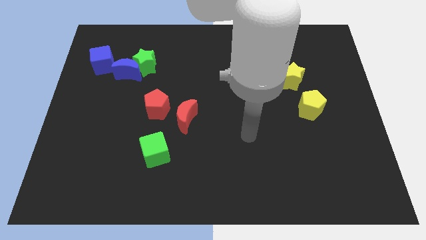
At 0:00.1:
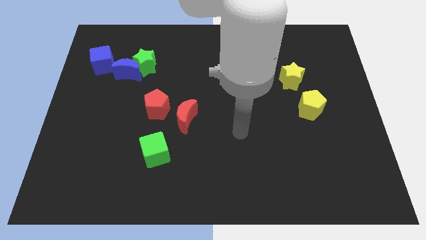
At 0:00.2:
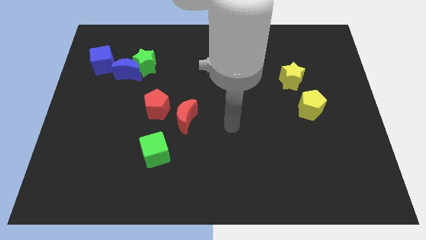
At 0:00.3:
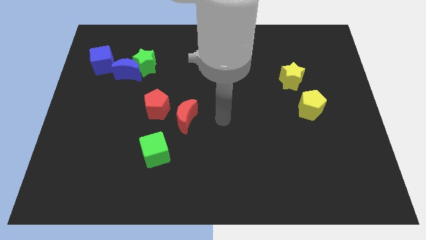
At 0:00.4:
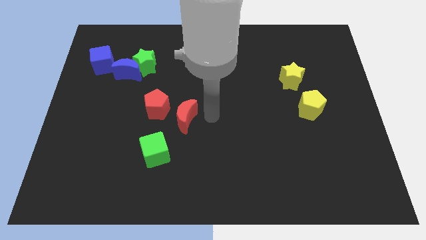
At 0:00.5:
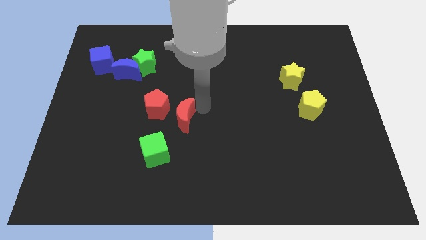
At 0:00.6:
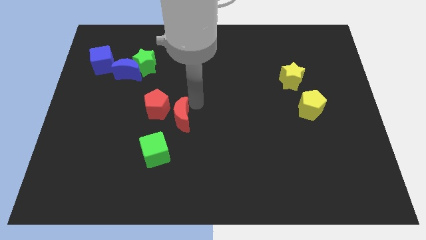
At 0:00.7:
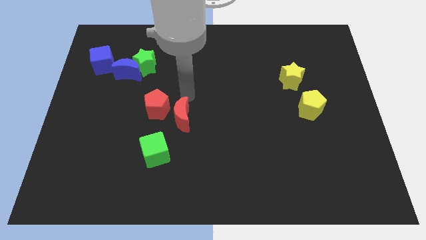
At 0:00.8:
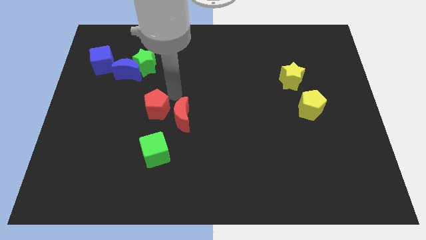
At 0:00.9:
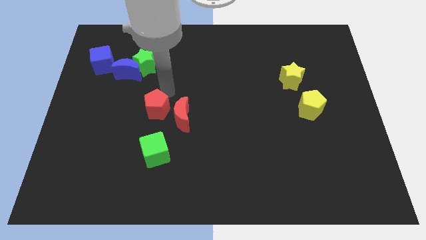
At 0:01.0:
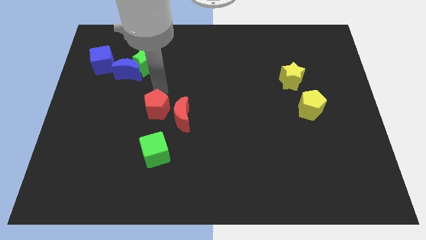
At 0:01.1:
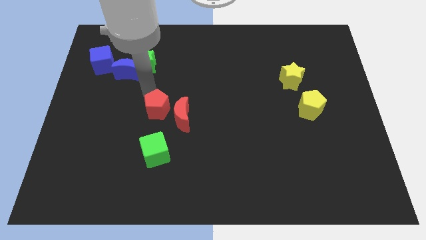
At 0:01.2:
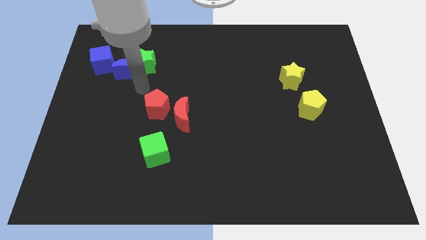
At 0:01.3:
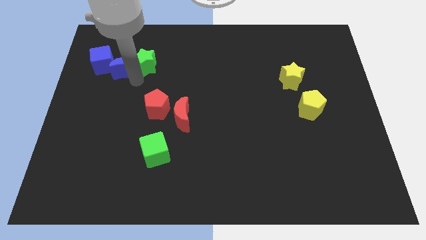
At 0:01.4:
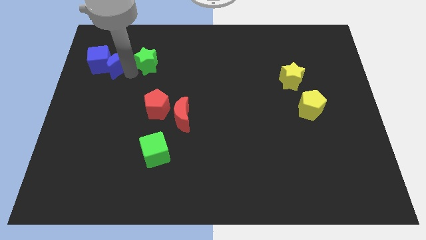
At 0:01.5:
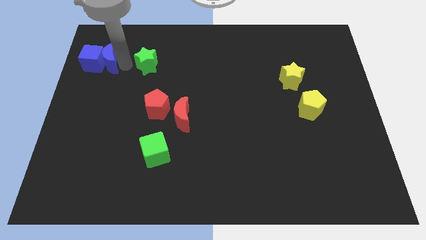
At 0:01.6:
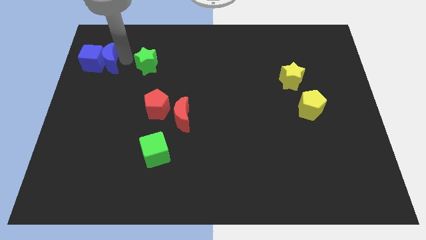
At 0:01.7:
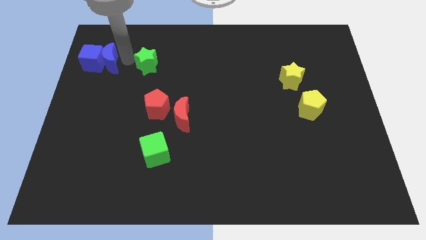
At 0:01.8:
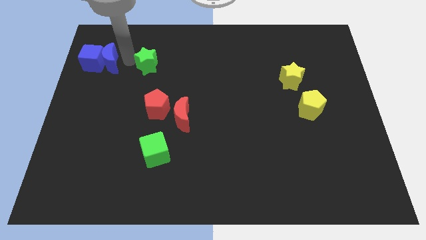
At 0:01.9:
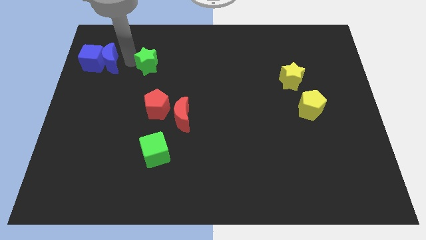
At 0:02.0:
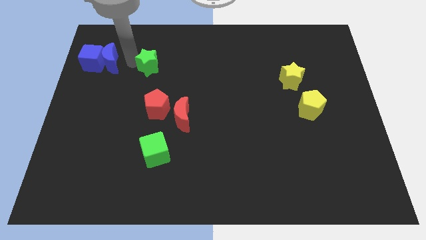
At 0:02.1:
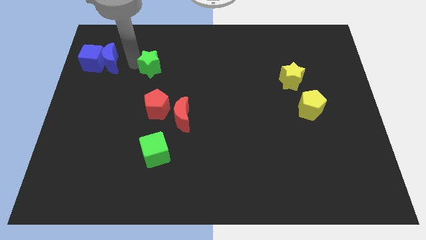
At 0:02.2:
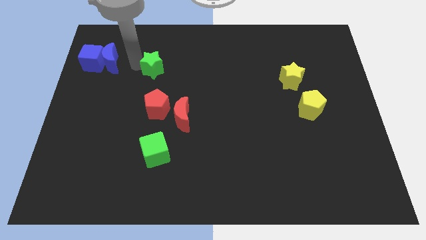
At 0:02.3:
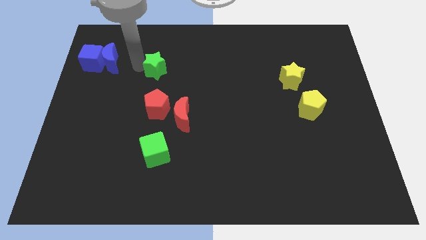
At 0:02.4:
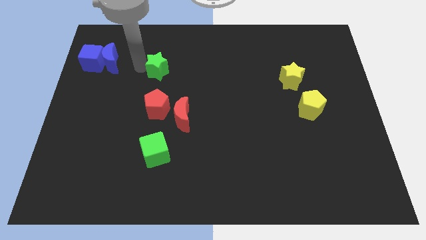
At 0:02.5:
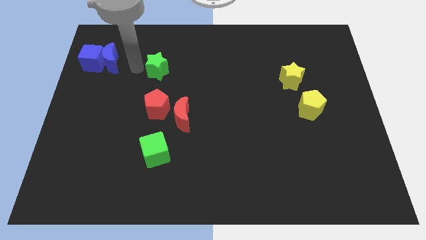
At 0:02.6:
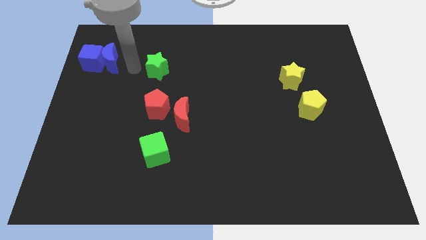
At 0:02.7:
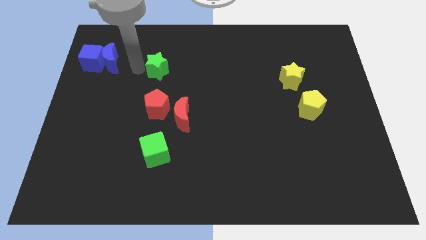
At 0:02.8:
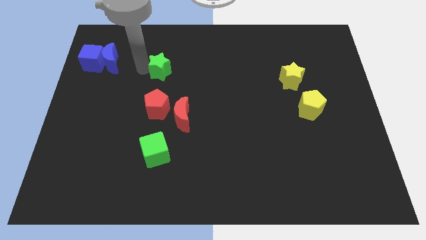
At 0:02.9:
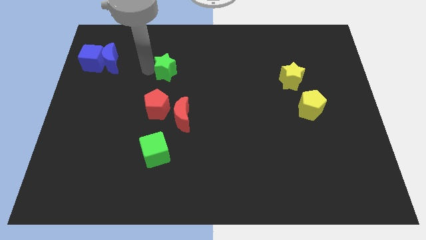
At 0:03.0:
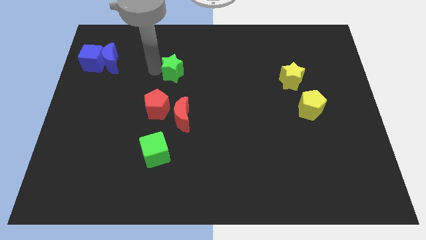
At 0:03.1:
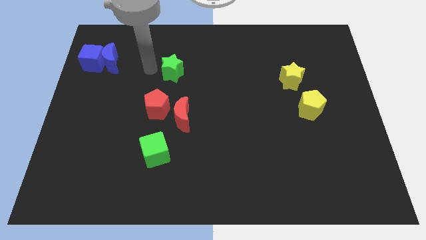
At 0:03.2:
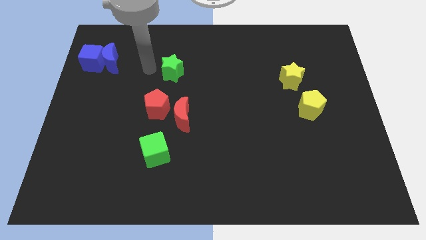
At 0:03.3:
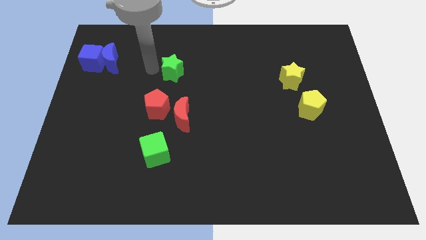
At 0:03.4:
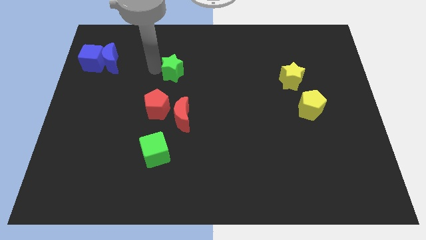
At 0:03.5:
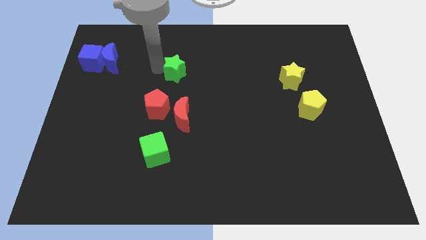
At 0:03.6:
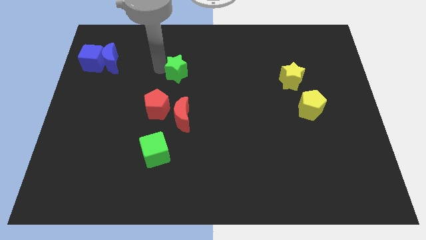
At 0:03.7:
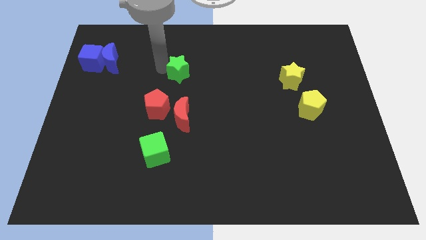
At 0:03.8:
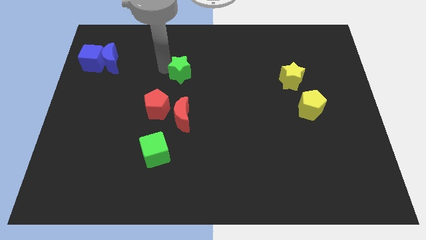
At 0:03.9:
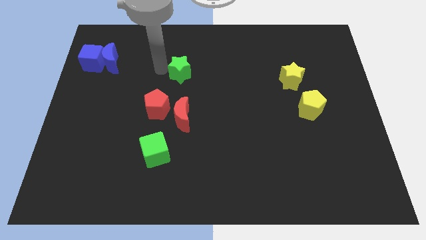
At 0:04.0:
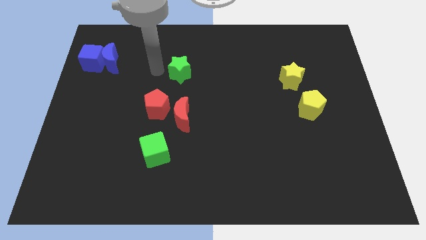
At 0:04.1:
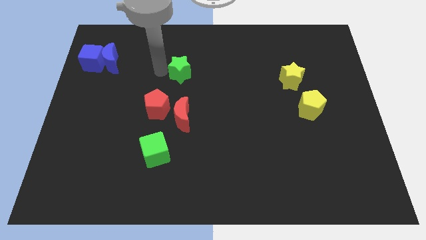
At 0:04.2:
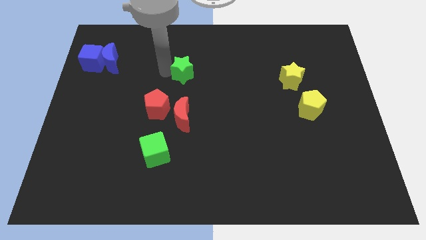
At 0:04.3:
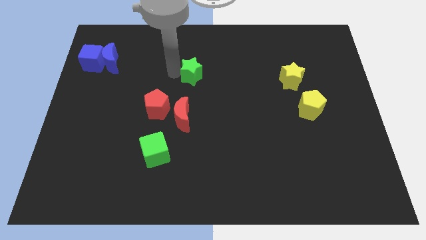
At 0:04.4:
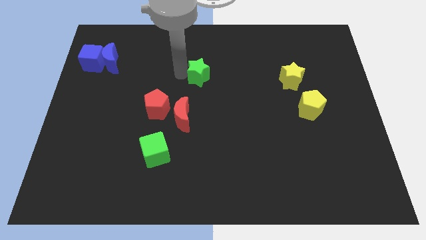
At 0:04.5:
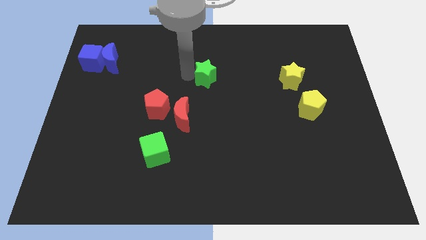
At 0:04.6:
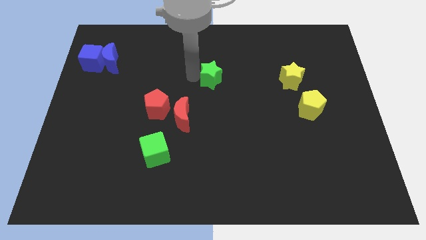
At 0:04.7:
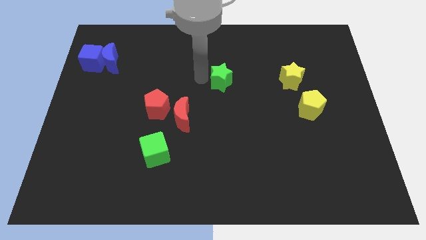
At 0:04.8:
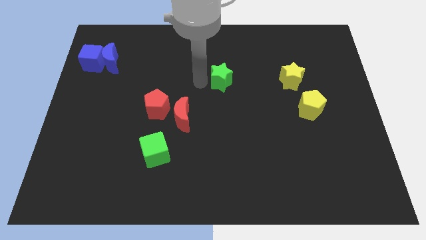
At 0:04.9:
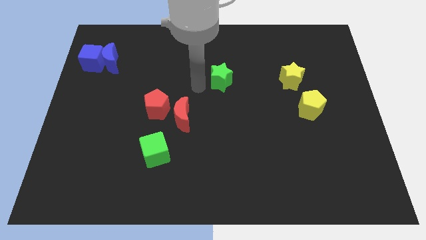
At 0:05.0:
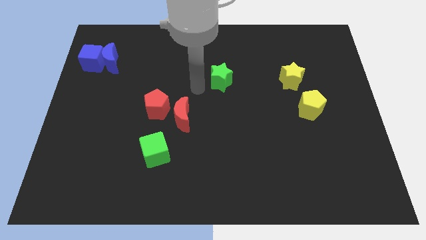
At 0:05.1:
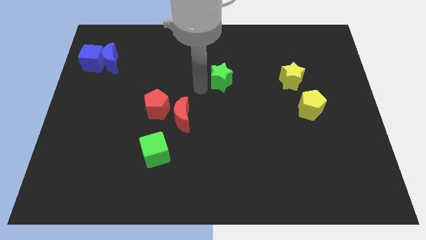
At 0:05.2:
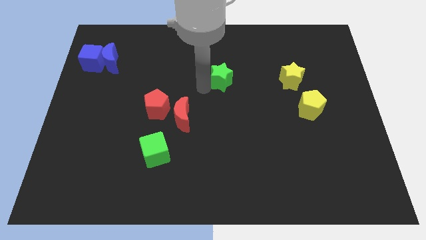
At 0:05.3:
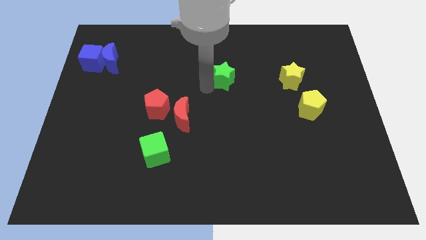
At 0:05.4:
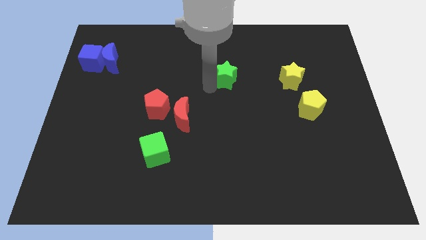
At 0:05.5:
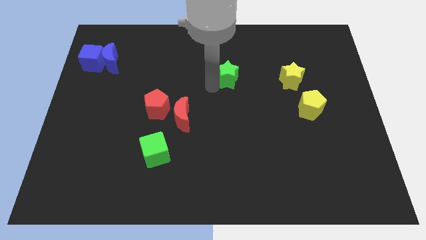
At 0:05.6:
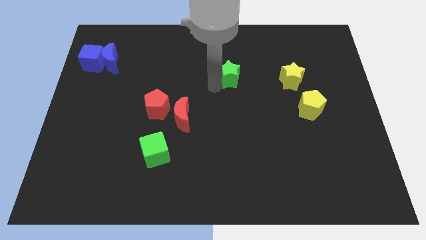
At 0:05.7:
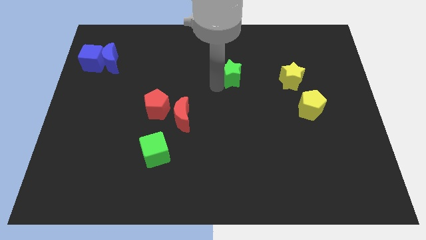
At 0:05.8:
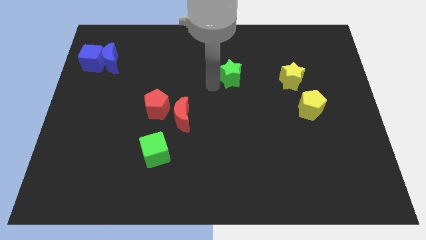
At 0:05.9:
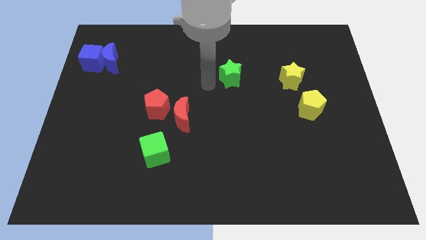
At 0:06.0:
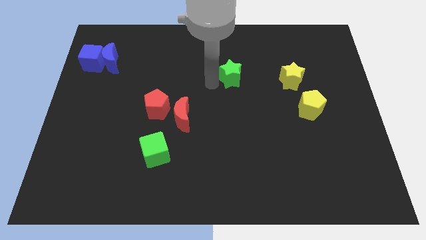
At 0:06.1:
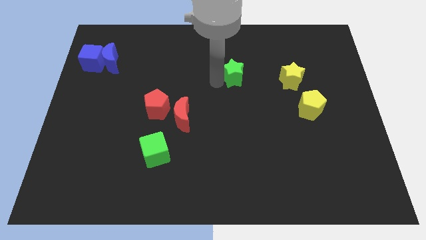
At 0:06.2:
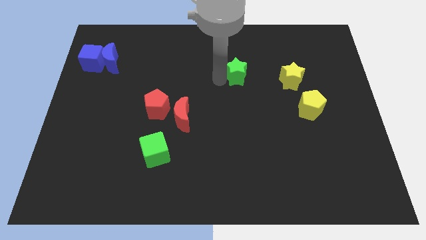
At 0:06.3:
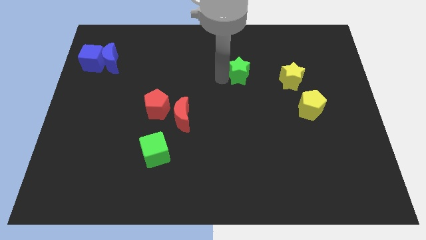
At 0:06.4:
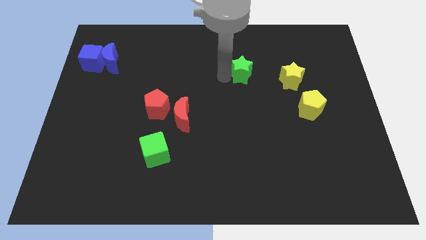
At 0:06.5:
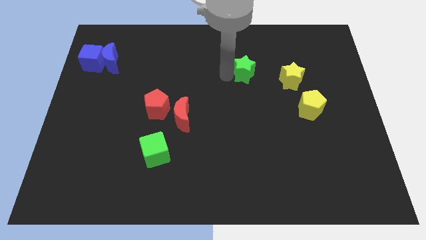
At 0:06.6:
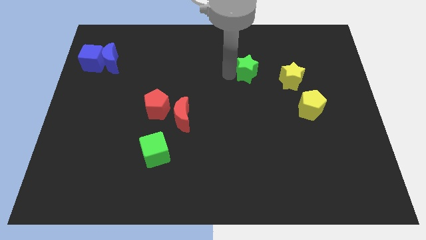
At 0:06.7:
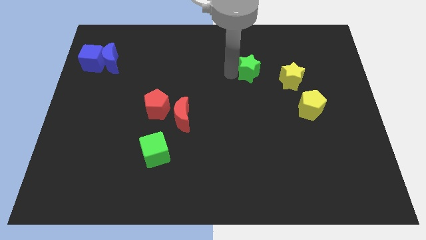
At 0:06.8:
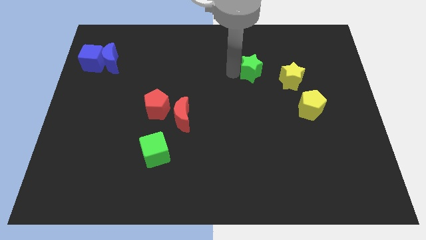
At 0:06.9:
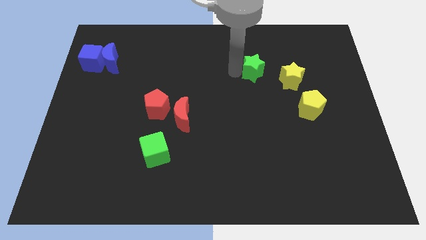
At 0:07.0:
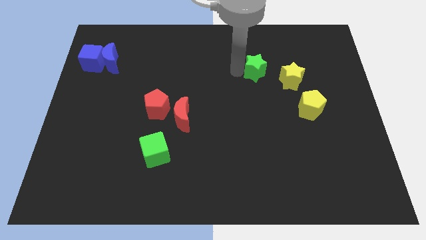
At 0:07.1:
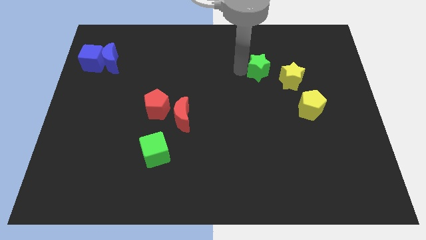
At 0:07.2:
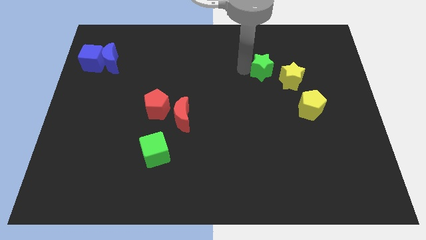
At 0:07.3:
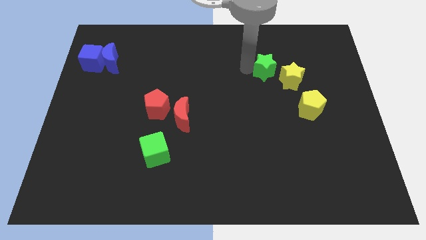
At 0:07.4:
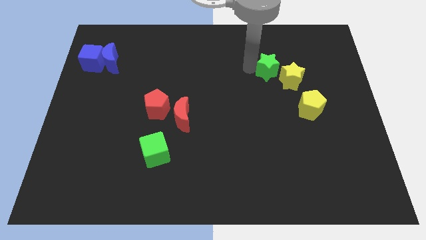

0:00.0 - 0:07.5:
move the green star close to the yellow star
